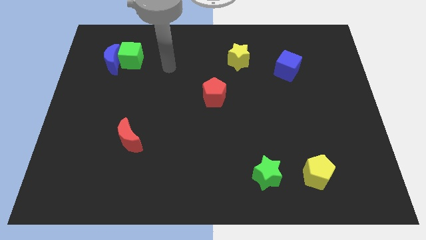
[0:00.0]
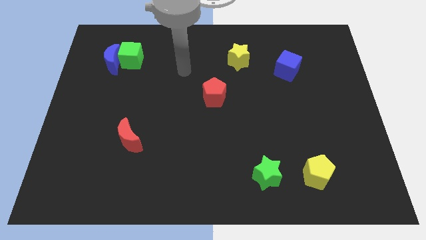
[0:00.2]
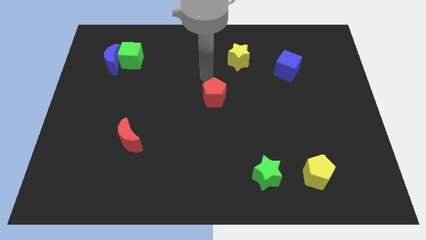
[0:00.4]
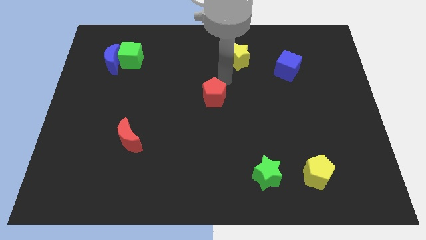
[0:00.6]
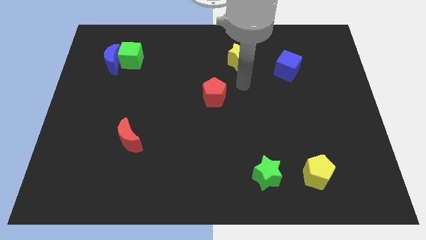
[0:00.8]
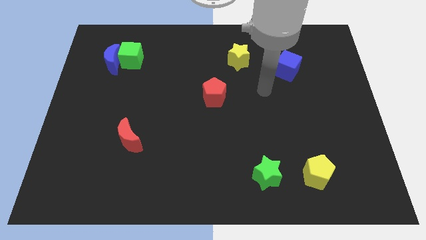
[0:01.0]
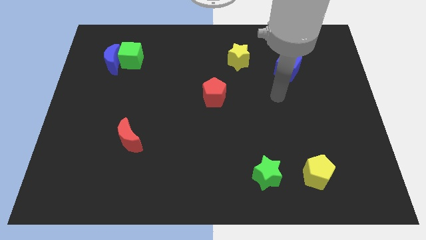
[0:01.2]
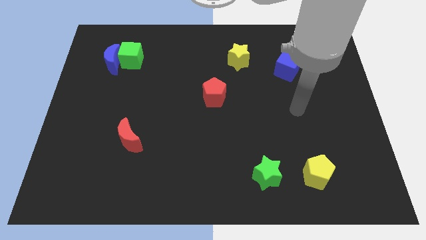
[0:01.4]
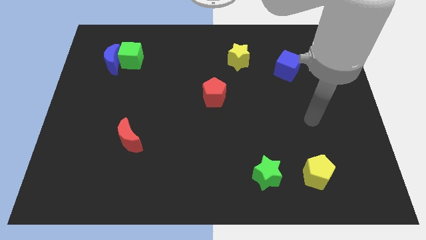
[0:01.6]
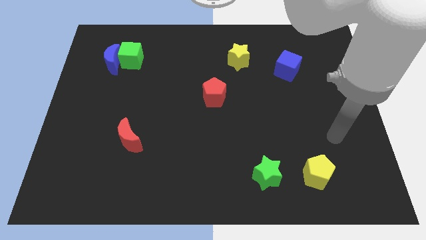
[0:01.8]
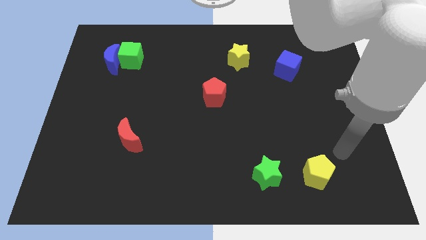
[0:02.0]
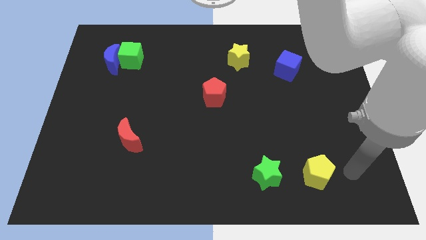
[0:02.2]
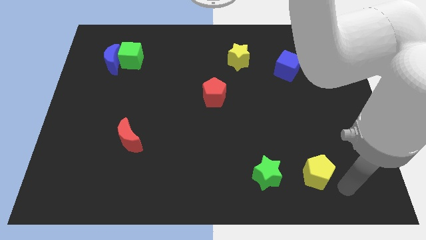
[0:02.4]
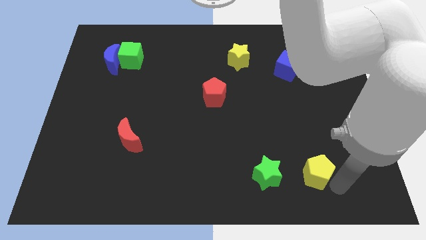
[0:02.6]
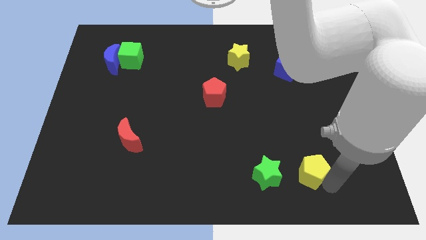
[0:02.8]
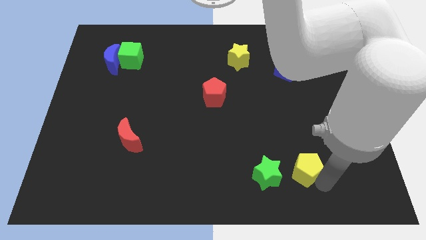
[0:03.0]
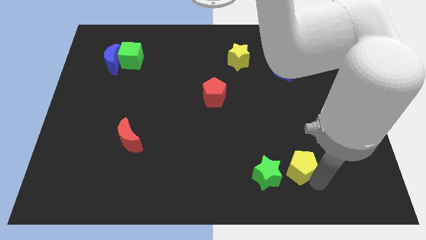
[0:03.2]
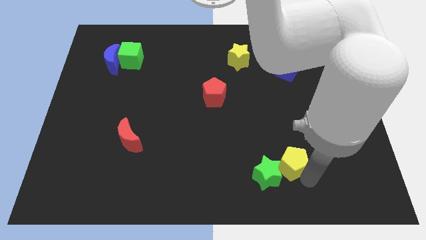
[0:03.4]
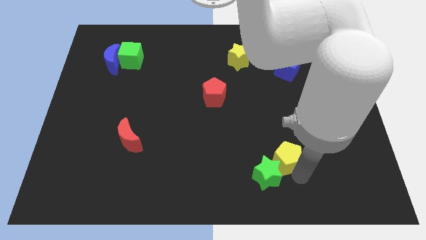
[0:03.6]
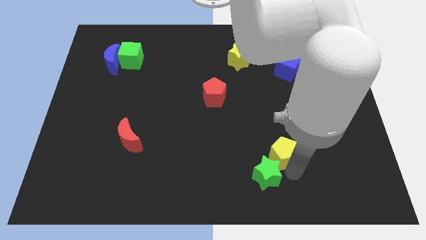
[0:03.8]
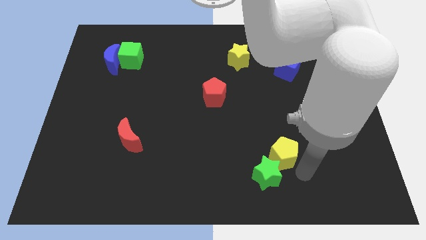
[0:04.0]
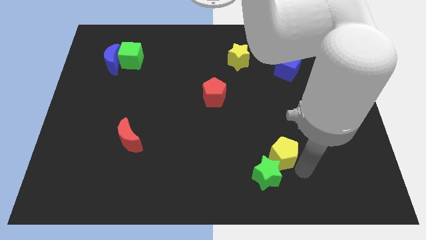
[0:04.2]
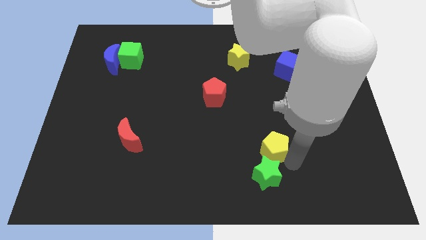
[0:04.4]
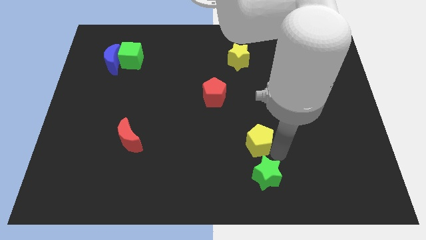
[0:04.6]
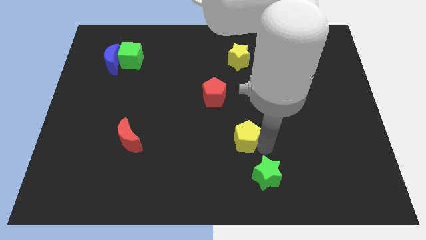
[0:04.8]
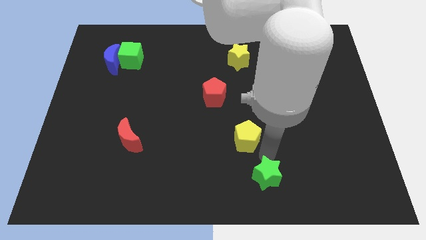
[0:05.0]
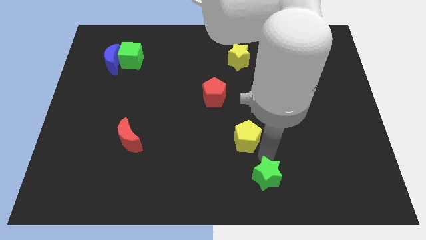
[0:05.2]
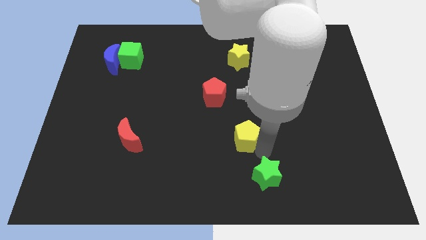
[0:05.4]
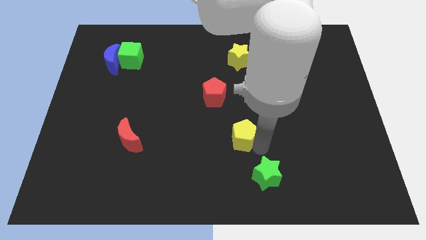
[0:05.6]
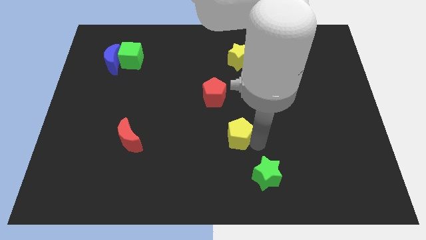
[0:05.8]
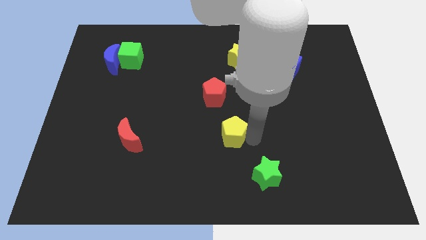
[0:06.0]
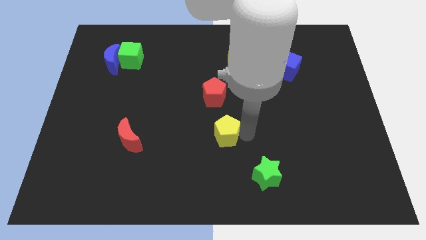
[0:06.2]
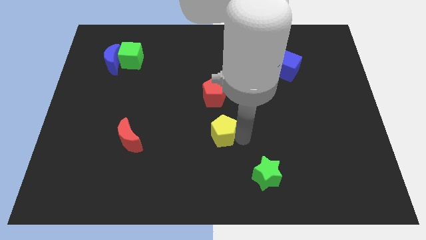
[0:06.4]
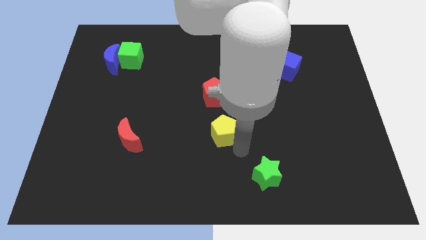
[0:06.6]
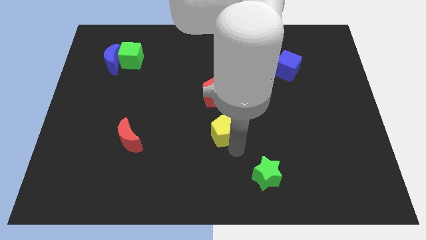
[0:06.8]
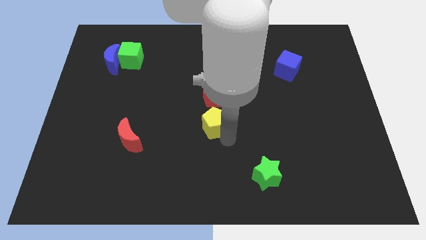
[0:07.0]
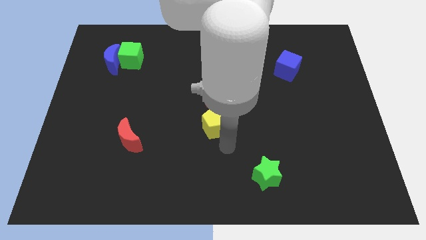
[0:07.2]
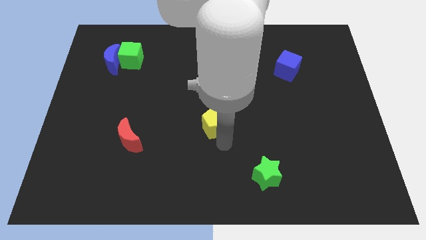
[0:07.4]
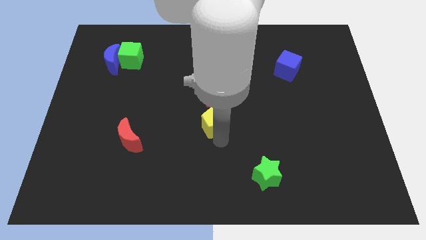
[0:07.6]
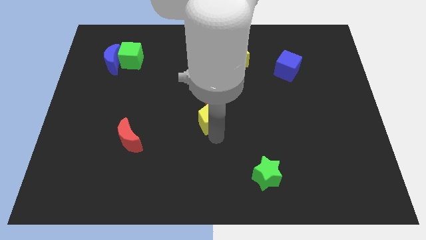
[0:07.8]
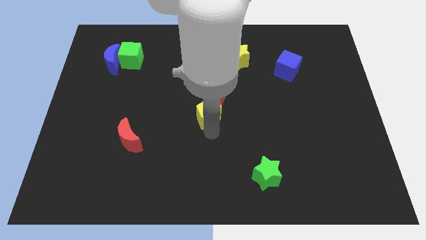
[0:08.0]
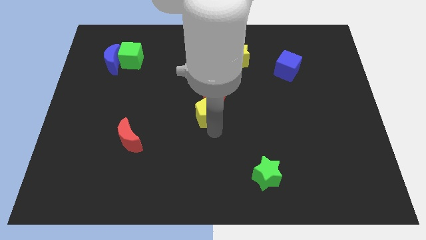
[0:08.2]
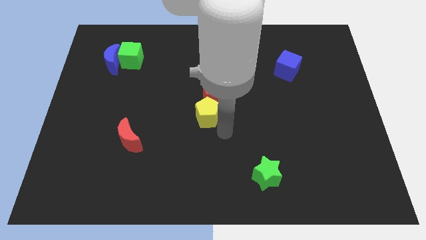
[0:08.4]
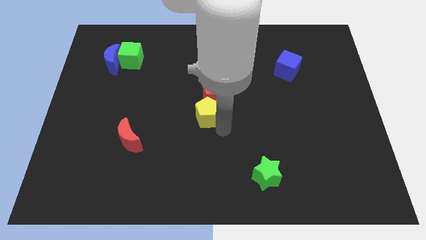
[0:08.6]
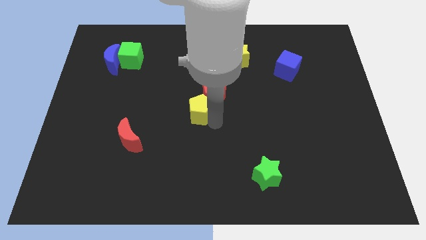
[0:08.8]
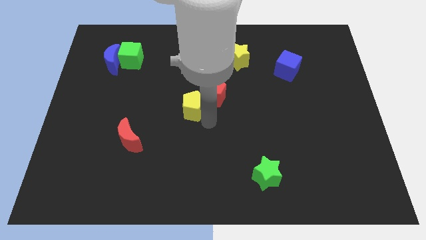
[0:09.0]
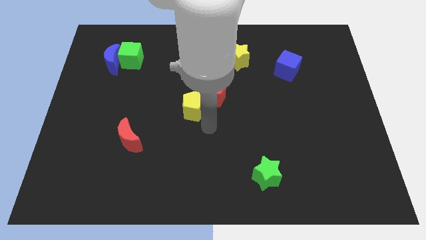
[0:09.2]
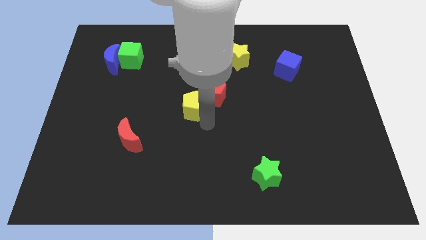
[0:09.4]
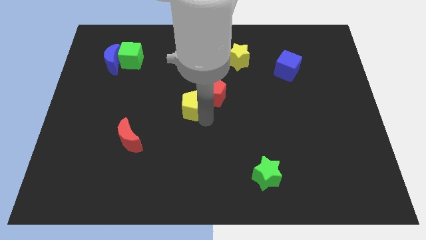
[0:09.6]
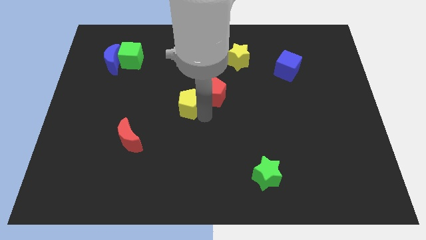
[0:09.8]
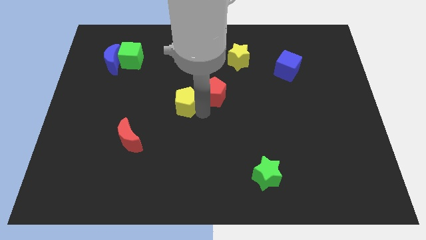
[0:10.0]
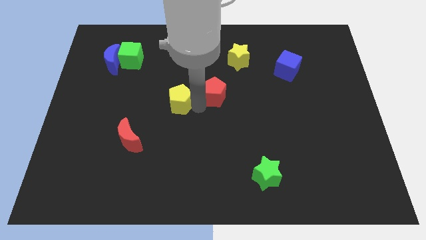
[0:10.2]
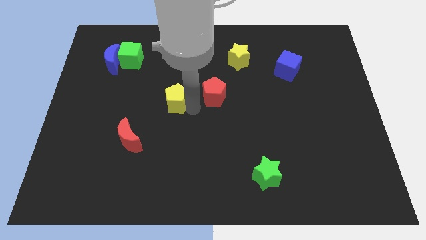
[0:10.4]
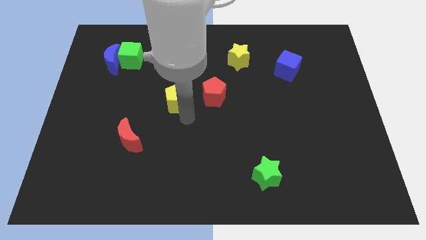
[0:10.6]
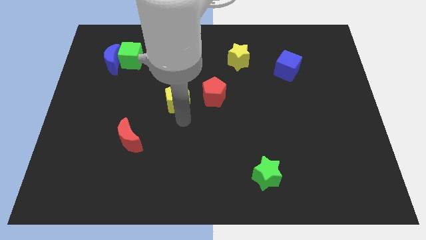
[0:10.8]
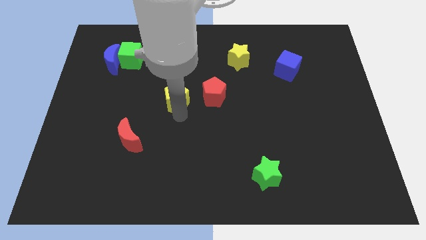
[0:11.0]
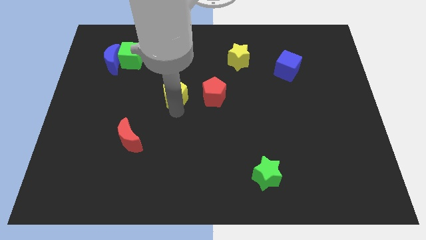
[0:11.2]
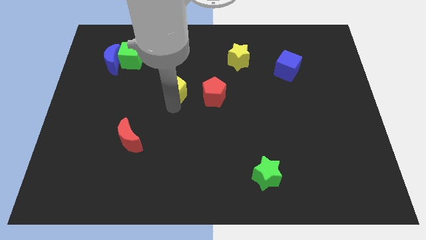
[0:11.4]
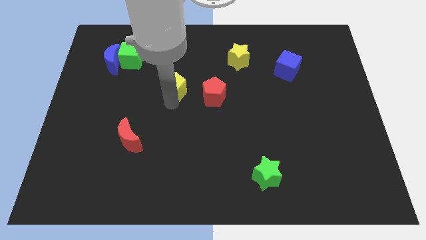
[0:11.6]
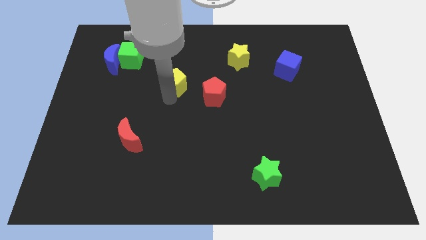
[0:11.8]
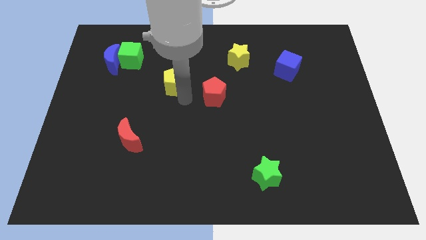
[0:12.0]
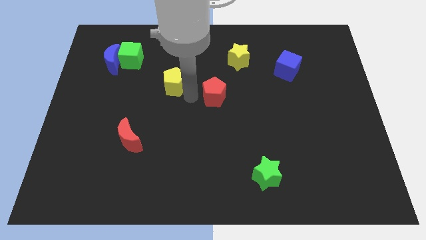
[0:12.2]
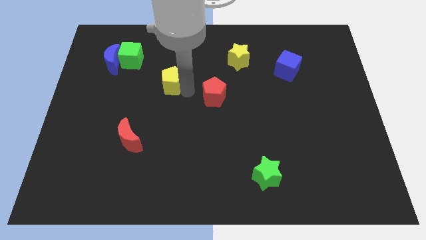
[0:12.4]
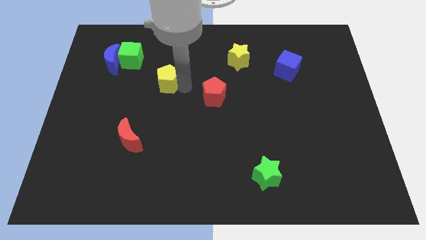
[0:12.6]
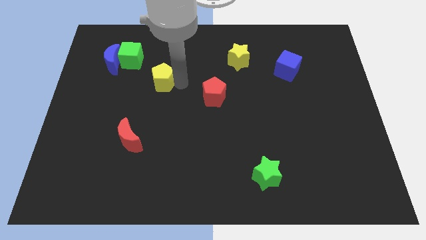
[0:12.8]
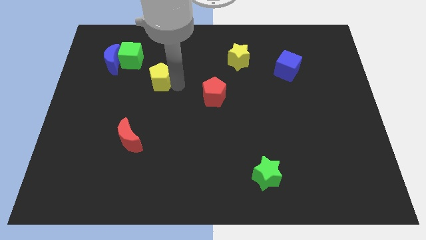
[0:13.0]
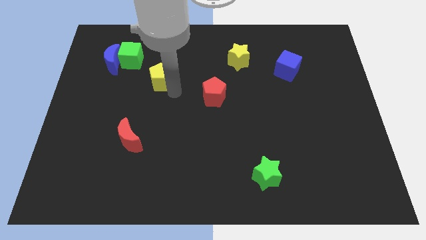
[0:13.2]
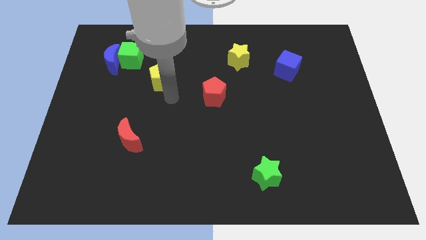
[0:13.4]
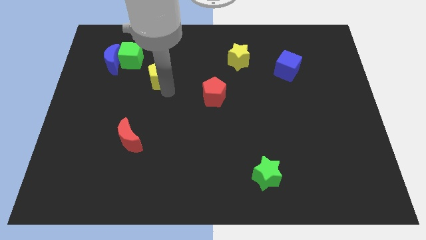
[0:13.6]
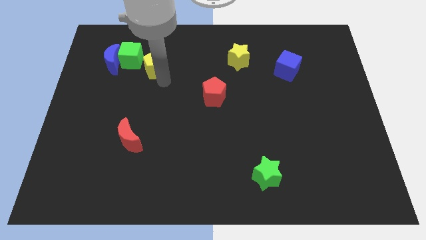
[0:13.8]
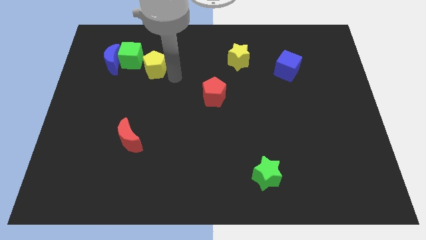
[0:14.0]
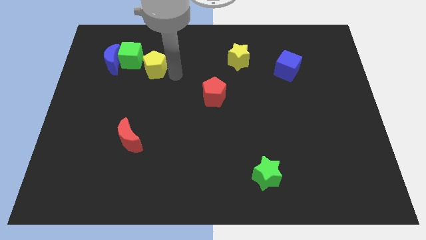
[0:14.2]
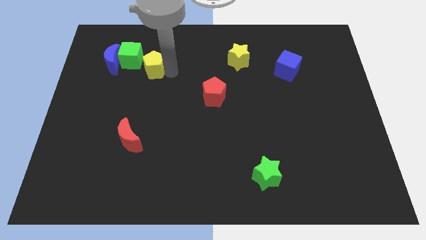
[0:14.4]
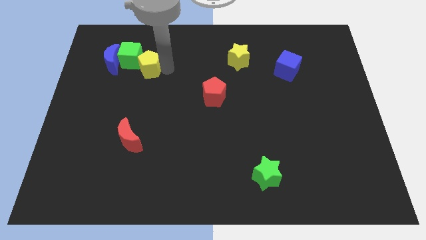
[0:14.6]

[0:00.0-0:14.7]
push the yellow pentagon towards the green cube
